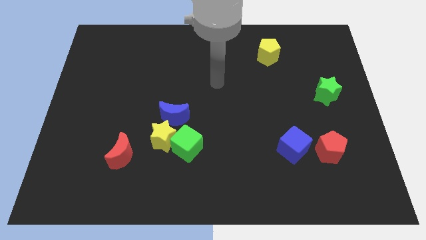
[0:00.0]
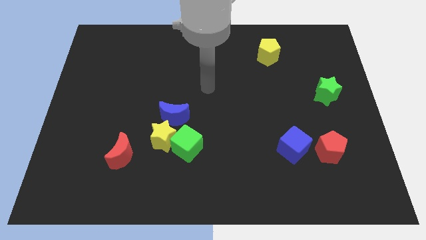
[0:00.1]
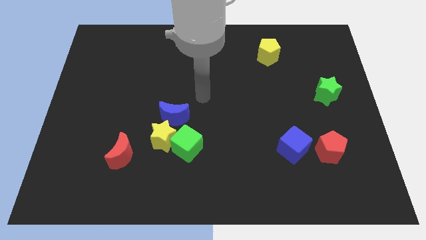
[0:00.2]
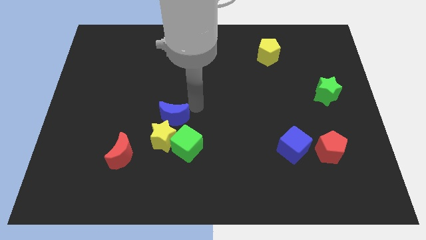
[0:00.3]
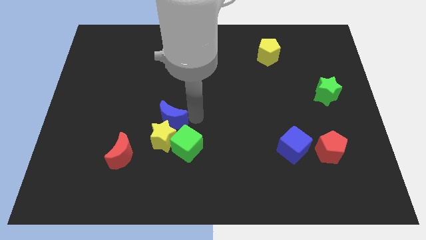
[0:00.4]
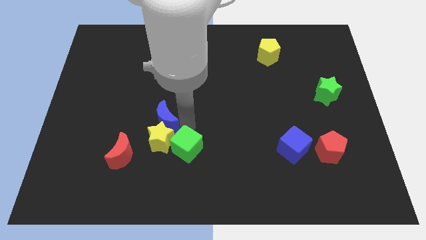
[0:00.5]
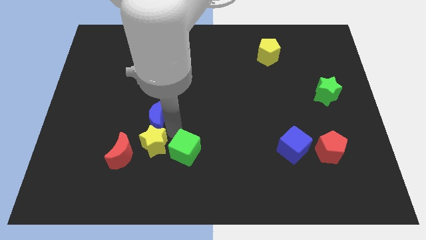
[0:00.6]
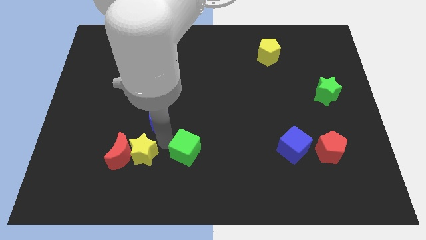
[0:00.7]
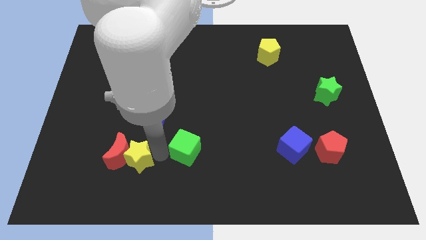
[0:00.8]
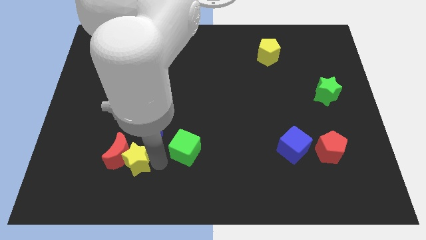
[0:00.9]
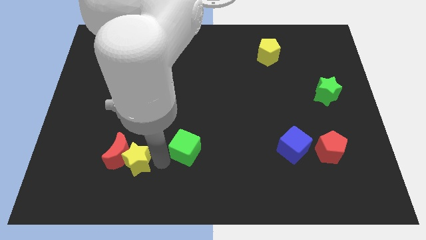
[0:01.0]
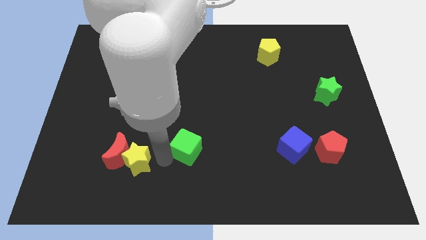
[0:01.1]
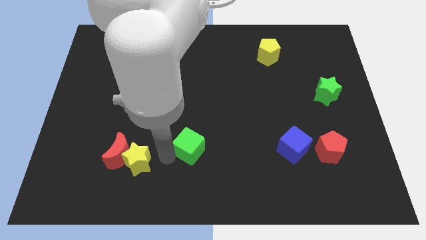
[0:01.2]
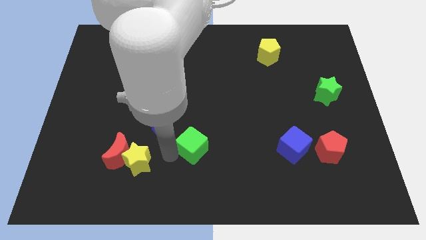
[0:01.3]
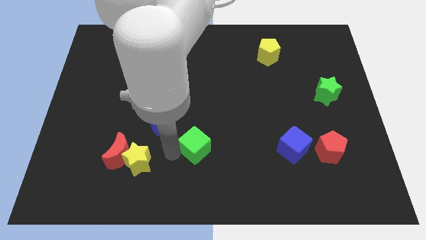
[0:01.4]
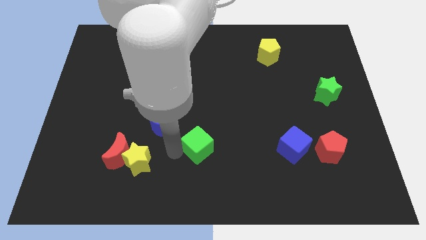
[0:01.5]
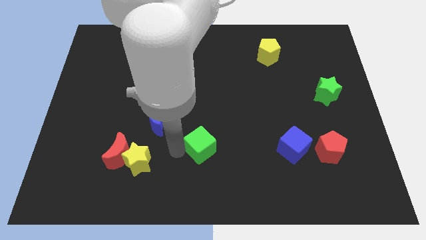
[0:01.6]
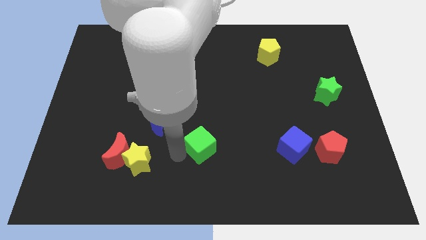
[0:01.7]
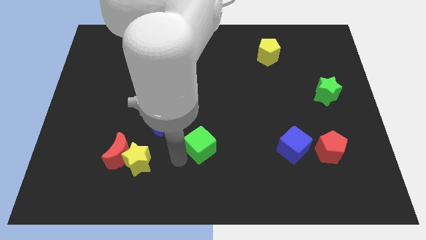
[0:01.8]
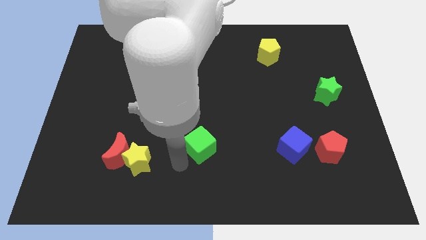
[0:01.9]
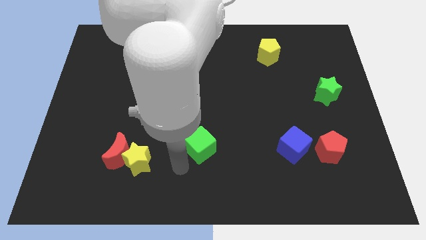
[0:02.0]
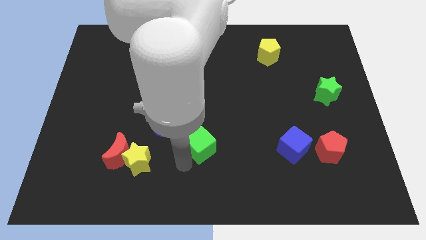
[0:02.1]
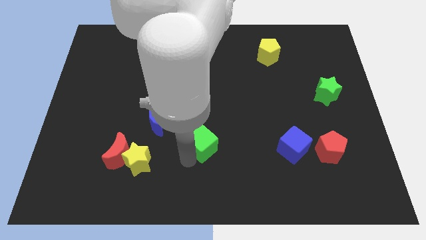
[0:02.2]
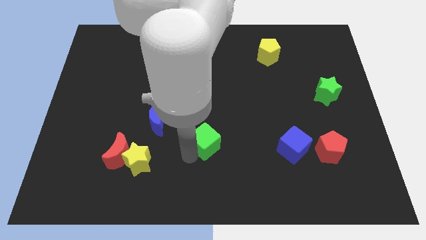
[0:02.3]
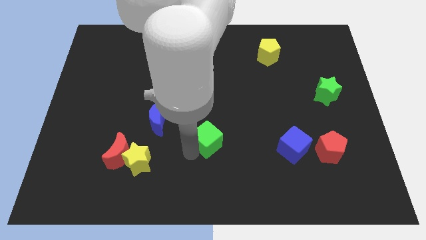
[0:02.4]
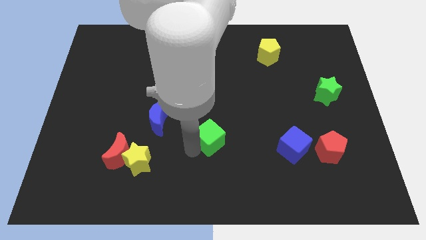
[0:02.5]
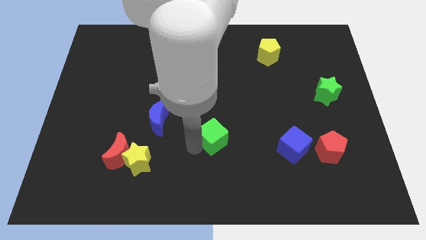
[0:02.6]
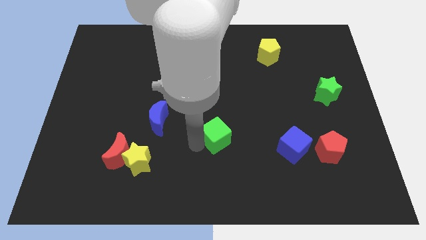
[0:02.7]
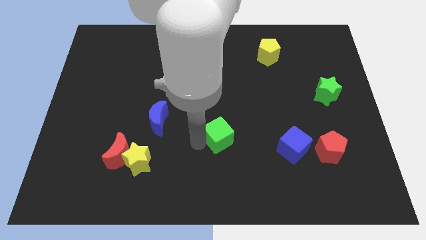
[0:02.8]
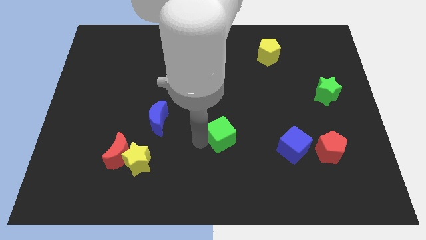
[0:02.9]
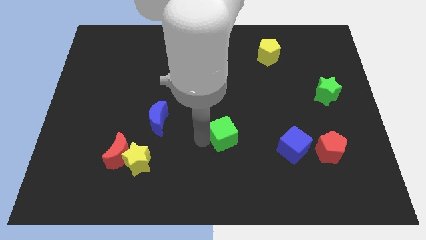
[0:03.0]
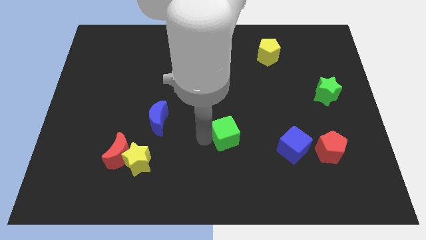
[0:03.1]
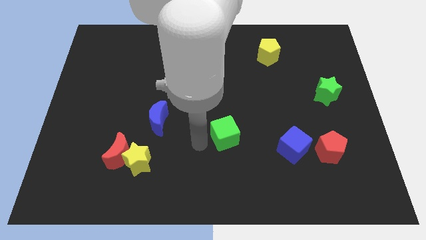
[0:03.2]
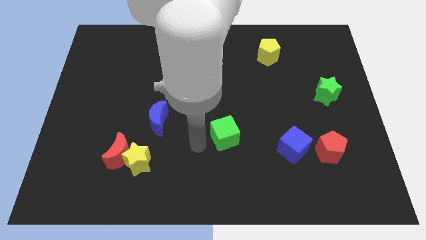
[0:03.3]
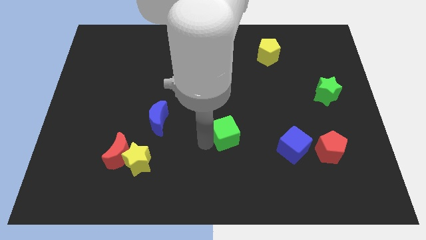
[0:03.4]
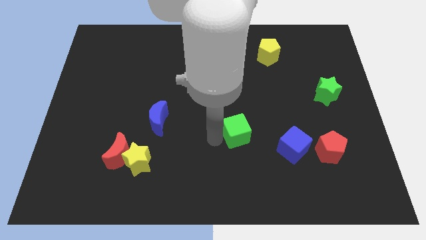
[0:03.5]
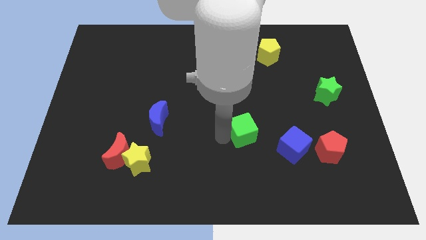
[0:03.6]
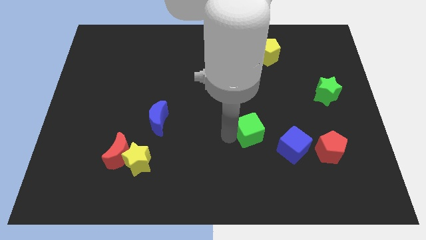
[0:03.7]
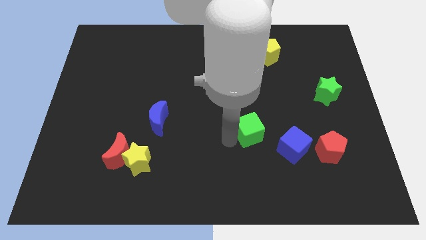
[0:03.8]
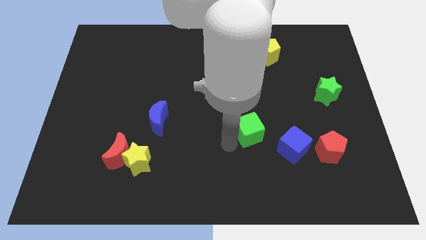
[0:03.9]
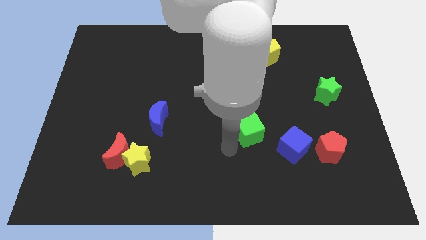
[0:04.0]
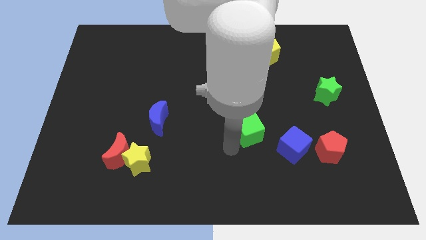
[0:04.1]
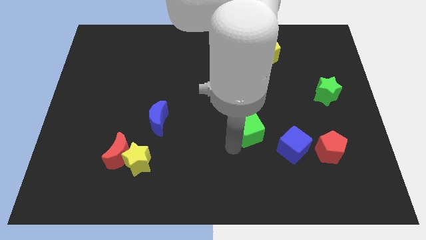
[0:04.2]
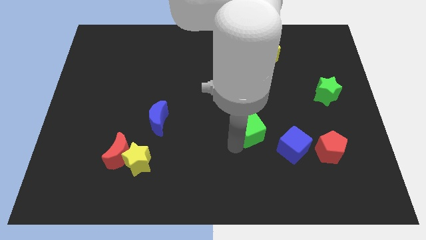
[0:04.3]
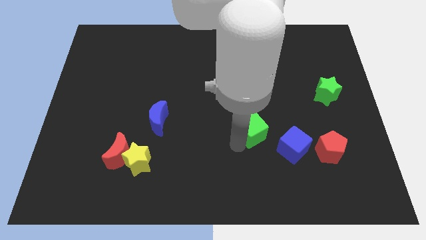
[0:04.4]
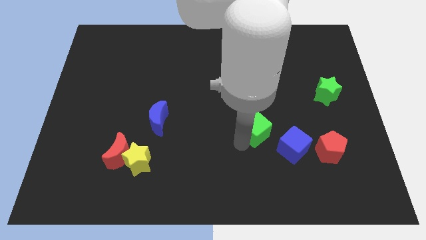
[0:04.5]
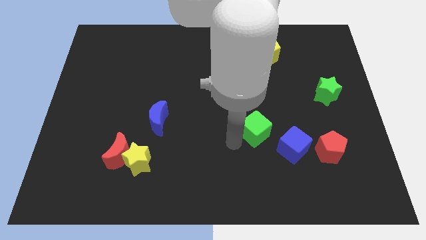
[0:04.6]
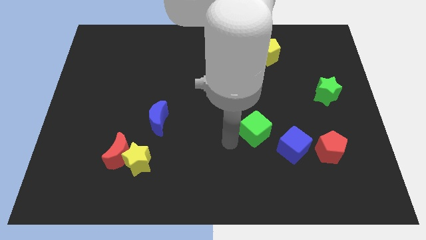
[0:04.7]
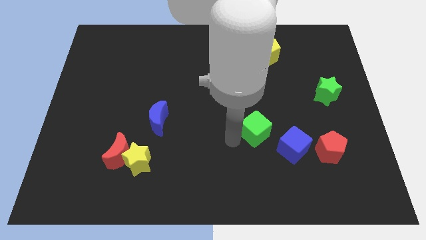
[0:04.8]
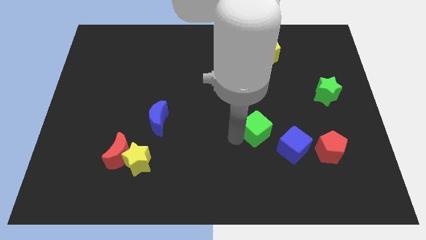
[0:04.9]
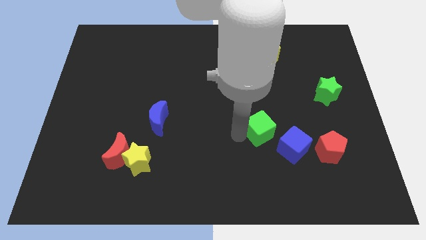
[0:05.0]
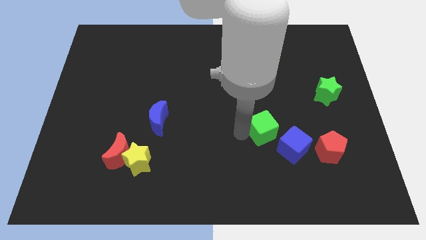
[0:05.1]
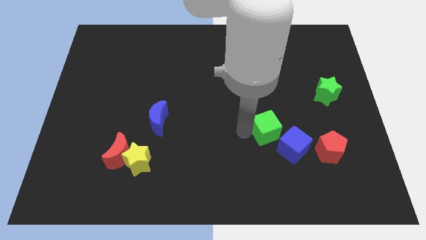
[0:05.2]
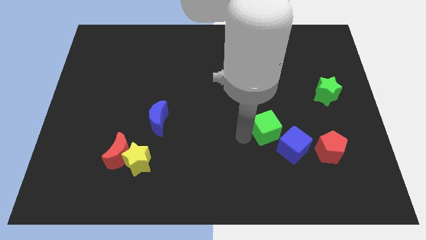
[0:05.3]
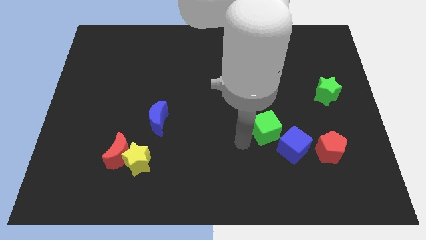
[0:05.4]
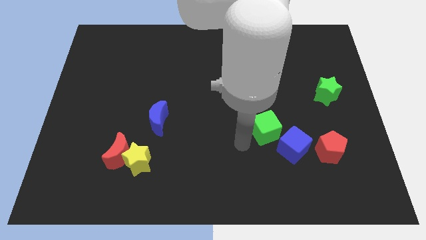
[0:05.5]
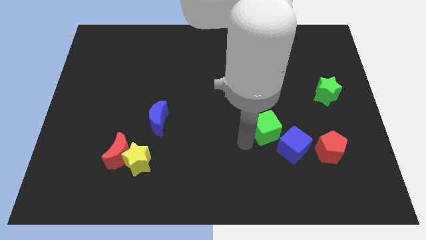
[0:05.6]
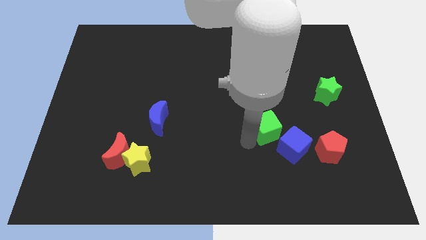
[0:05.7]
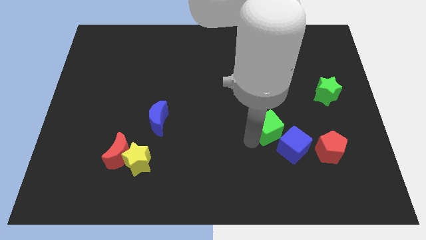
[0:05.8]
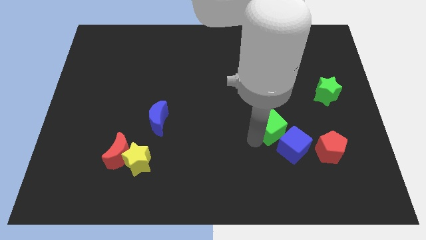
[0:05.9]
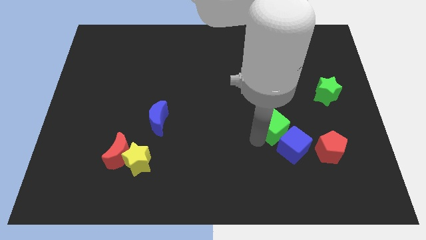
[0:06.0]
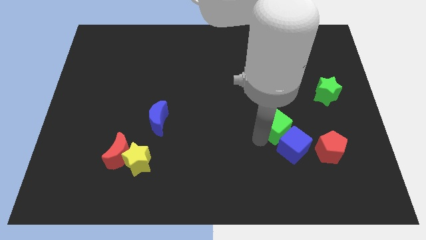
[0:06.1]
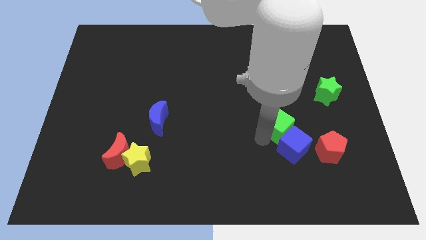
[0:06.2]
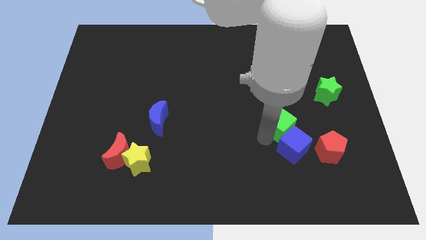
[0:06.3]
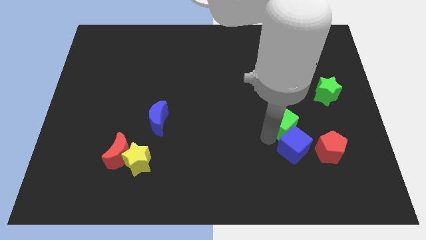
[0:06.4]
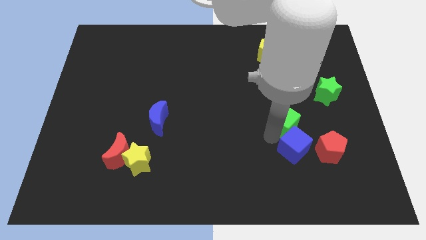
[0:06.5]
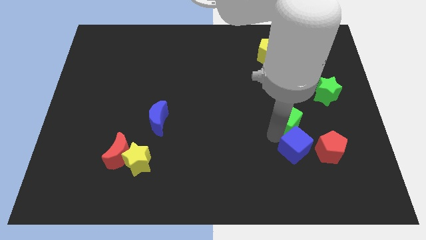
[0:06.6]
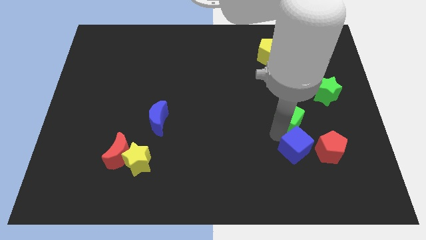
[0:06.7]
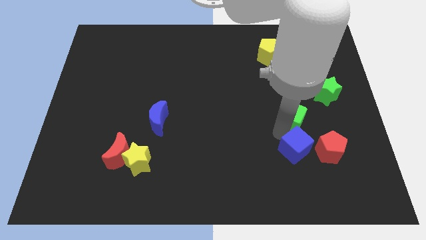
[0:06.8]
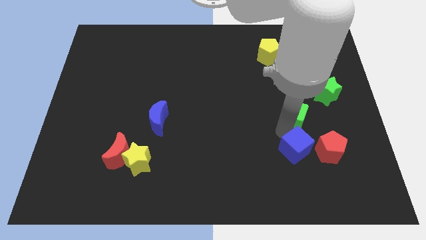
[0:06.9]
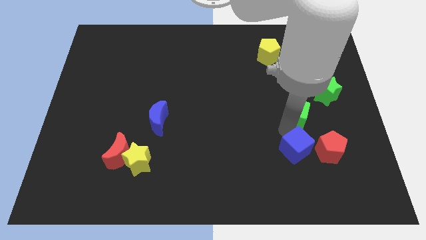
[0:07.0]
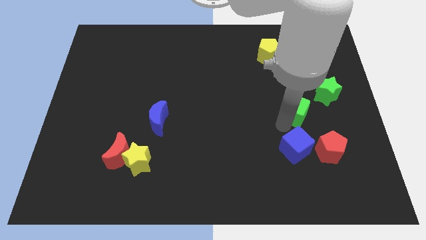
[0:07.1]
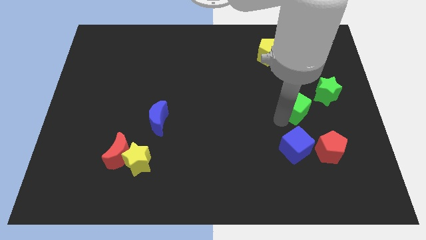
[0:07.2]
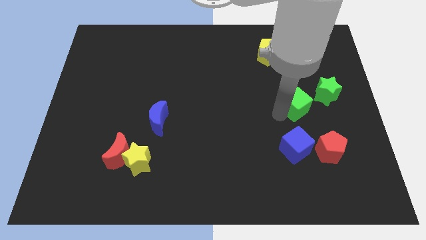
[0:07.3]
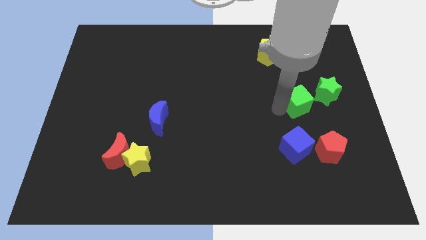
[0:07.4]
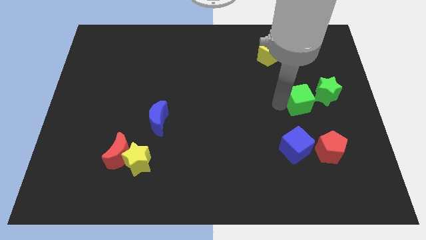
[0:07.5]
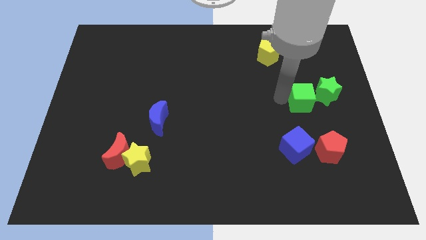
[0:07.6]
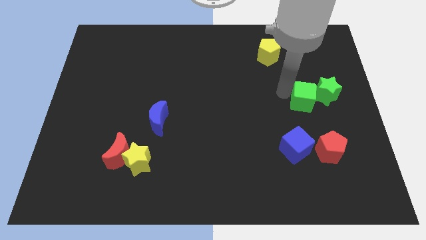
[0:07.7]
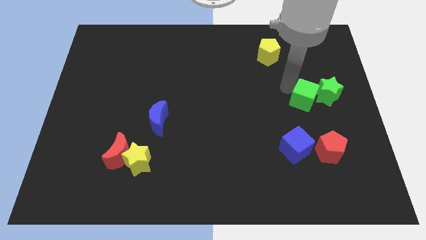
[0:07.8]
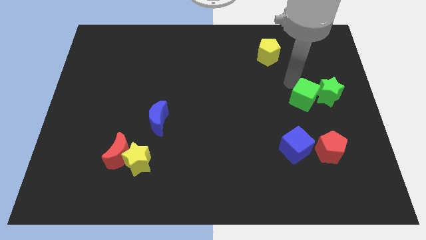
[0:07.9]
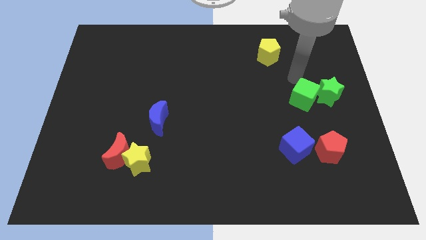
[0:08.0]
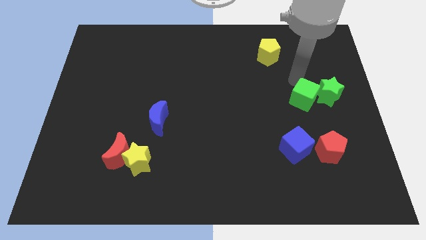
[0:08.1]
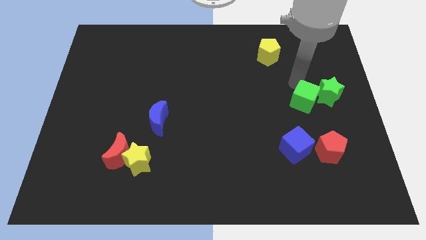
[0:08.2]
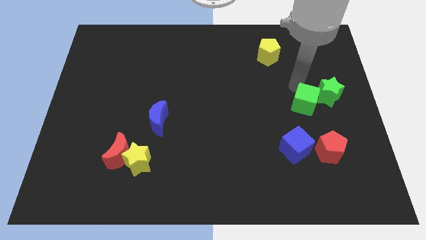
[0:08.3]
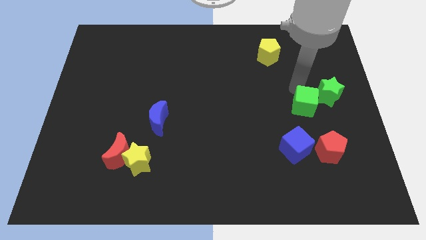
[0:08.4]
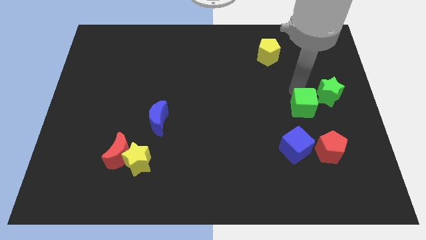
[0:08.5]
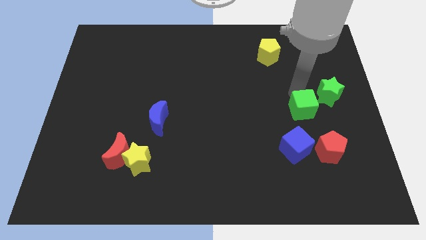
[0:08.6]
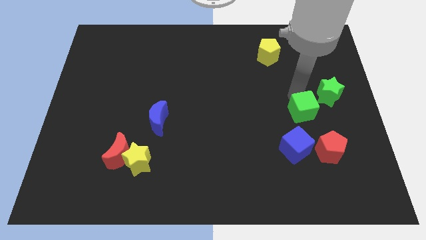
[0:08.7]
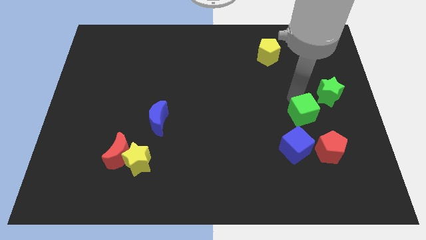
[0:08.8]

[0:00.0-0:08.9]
slide the green cube to the top right of the blue cube
